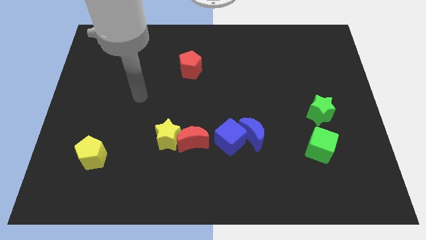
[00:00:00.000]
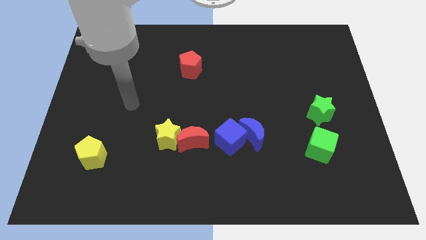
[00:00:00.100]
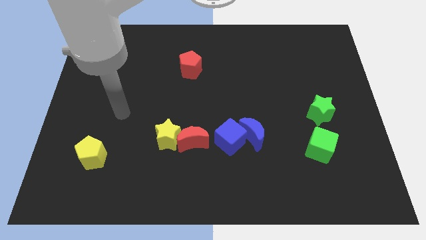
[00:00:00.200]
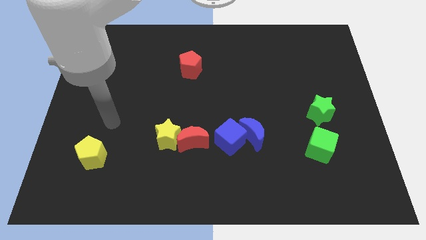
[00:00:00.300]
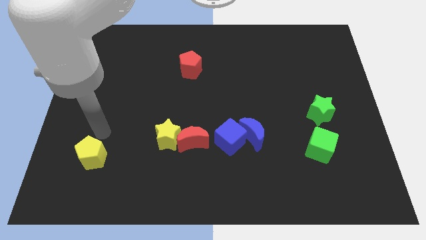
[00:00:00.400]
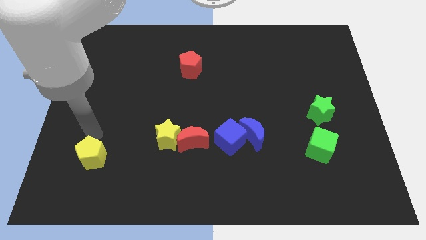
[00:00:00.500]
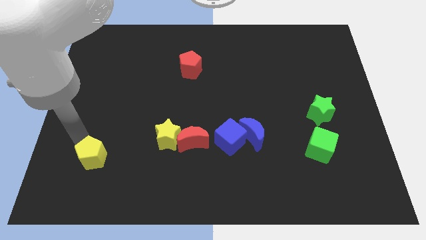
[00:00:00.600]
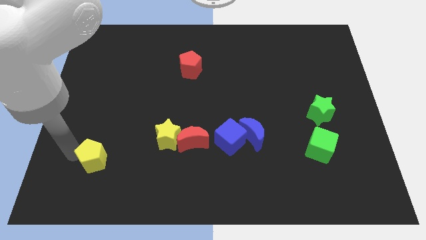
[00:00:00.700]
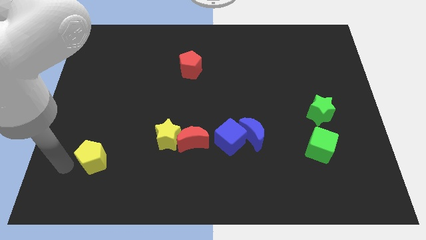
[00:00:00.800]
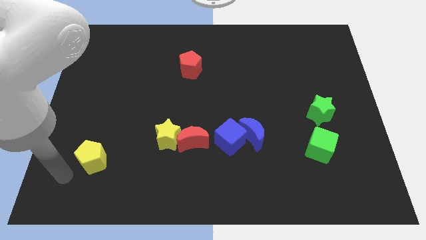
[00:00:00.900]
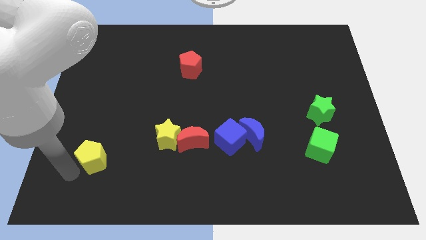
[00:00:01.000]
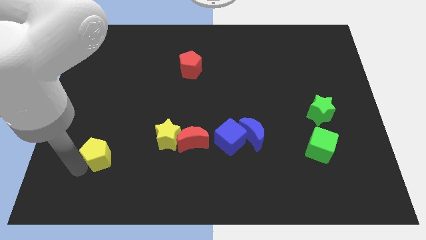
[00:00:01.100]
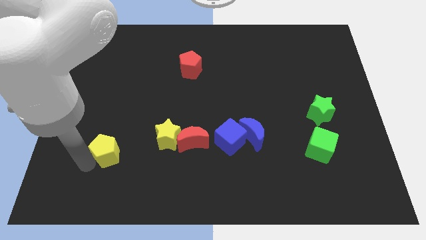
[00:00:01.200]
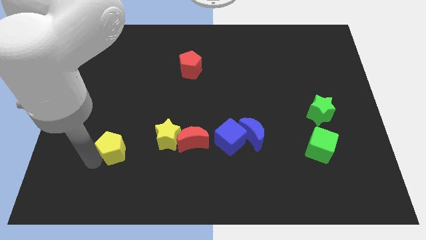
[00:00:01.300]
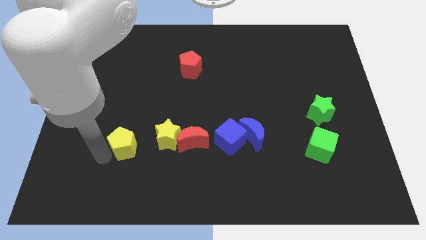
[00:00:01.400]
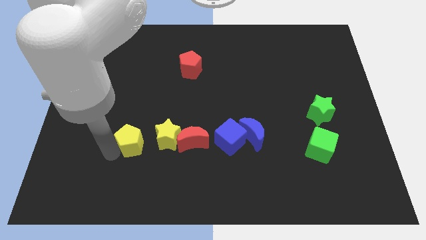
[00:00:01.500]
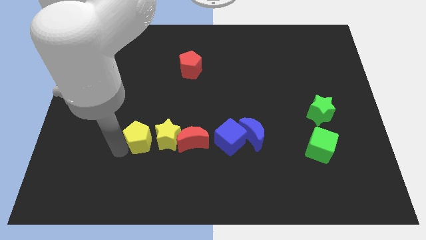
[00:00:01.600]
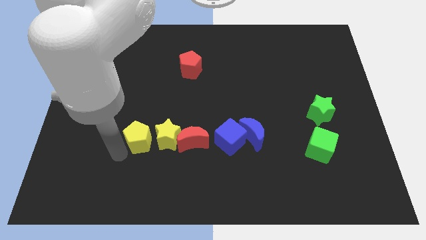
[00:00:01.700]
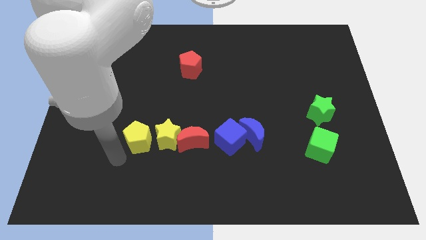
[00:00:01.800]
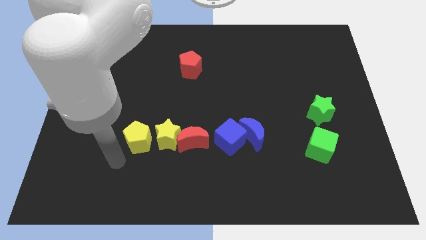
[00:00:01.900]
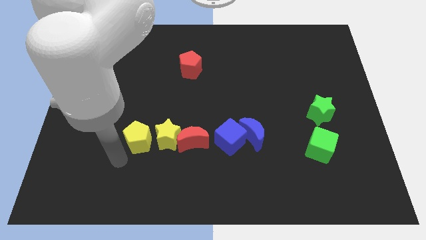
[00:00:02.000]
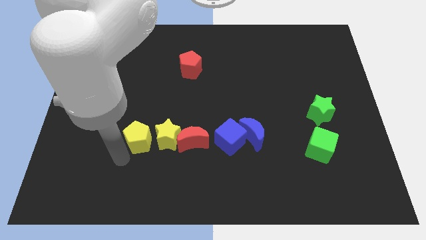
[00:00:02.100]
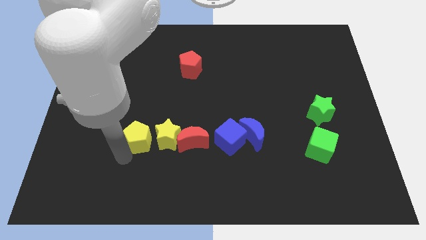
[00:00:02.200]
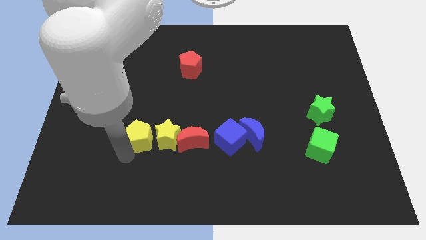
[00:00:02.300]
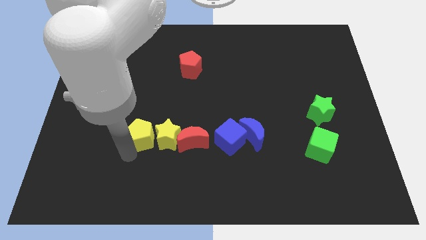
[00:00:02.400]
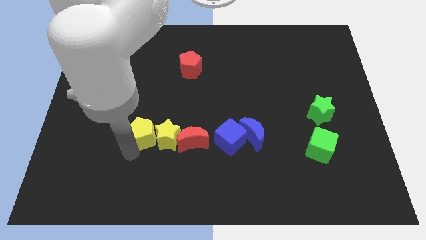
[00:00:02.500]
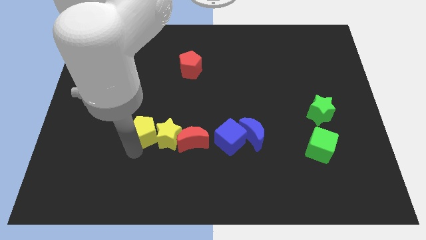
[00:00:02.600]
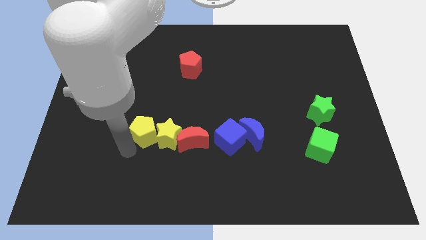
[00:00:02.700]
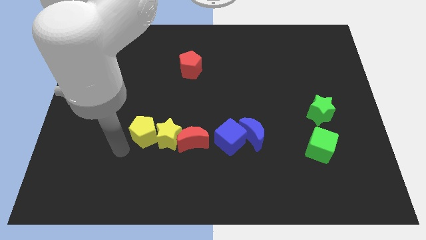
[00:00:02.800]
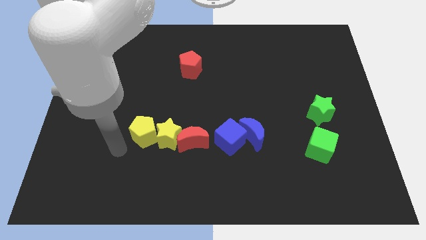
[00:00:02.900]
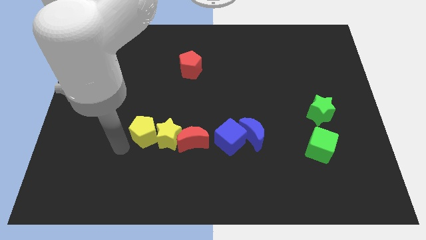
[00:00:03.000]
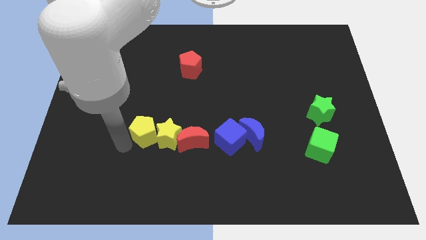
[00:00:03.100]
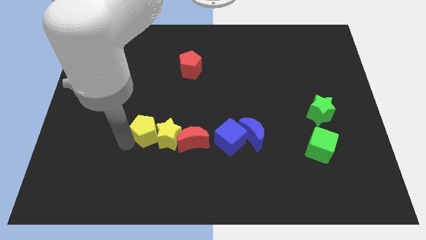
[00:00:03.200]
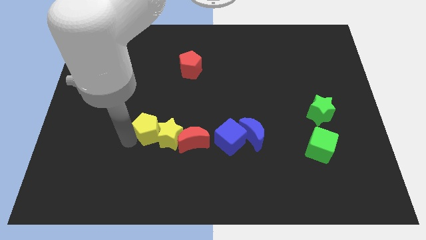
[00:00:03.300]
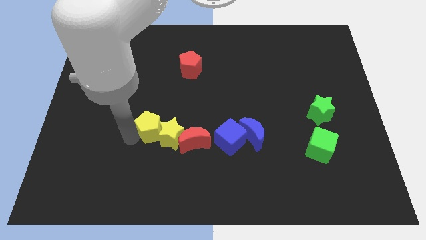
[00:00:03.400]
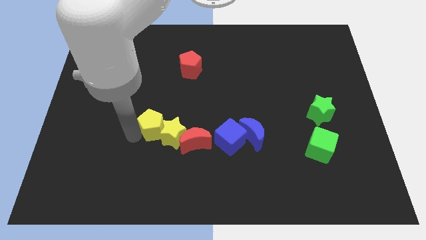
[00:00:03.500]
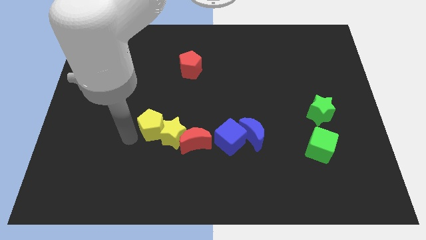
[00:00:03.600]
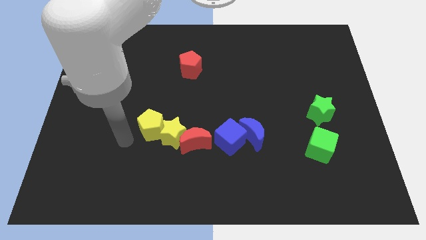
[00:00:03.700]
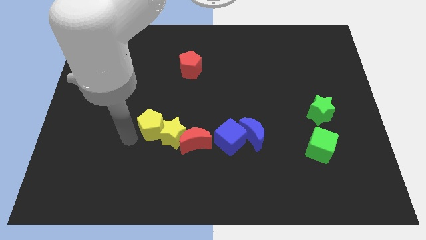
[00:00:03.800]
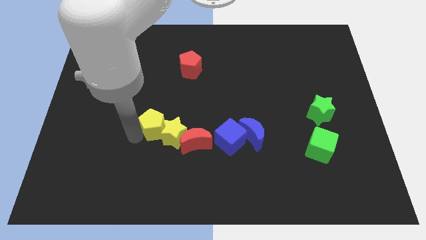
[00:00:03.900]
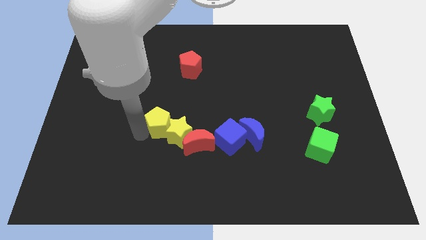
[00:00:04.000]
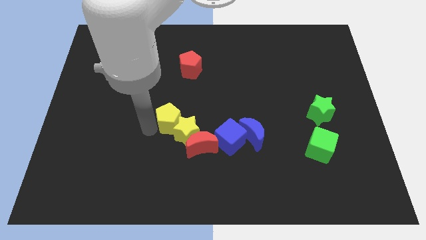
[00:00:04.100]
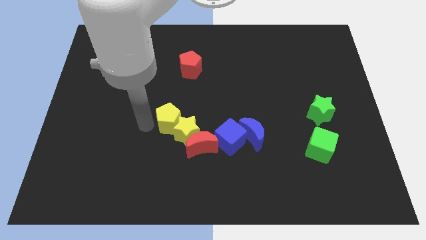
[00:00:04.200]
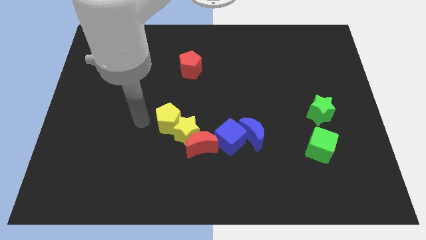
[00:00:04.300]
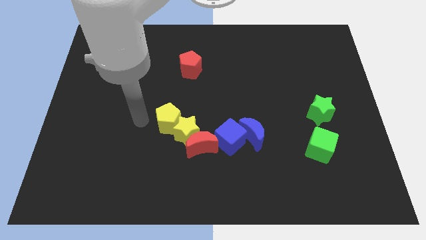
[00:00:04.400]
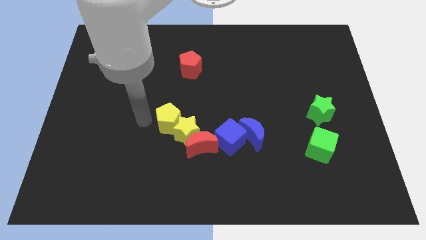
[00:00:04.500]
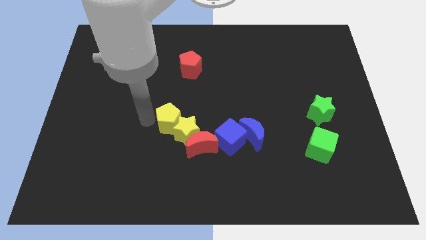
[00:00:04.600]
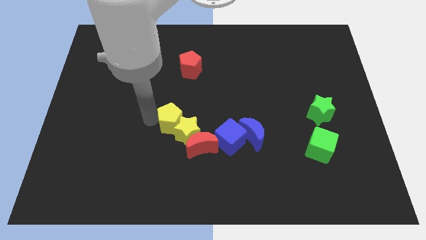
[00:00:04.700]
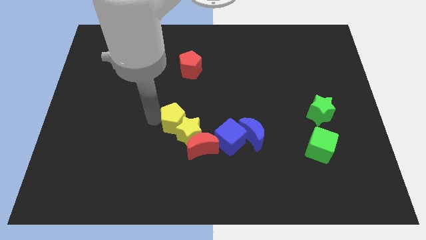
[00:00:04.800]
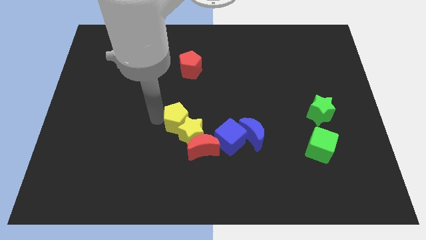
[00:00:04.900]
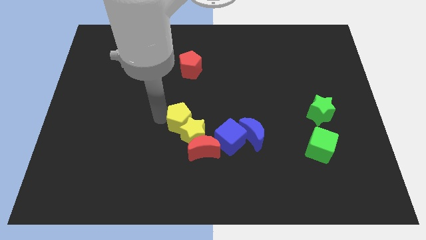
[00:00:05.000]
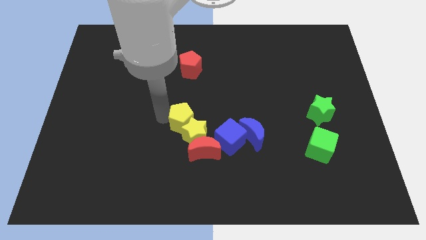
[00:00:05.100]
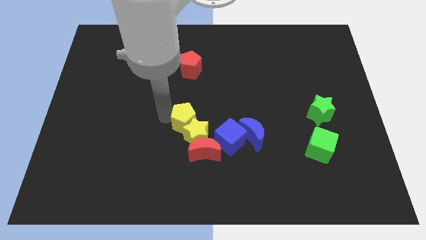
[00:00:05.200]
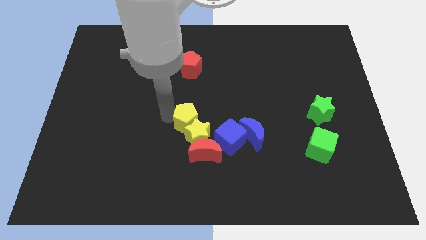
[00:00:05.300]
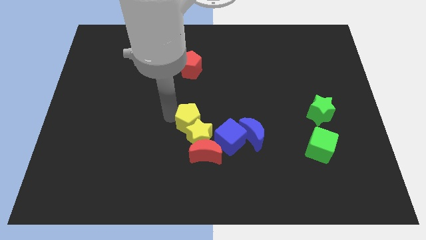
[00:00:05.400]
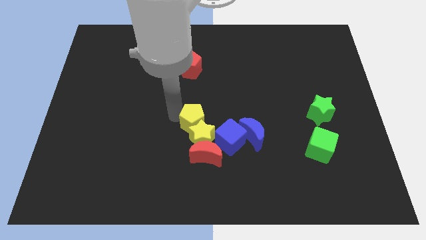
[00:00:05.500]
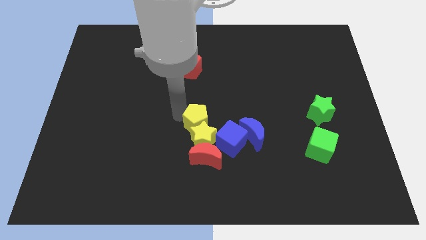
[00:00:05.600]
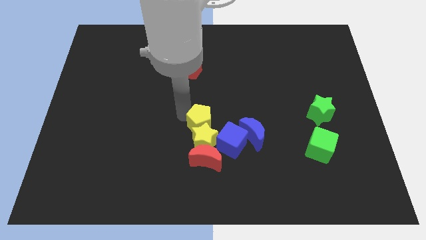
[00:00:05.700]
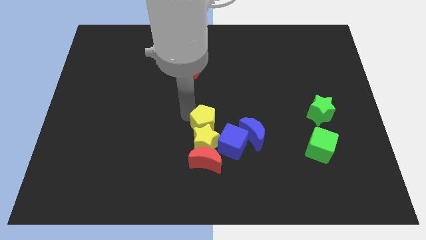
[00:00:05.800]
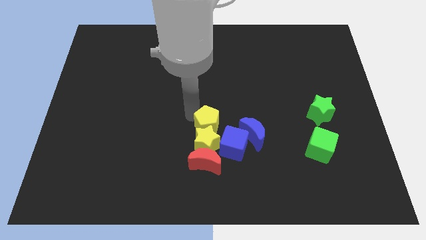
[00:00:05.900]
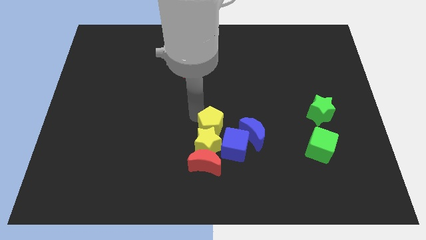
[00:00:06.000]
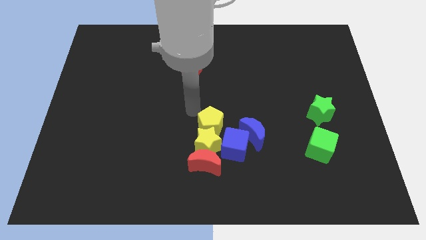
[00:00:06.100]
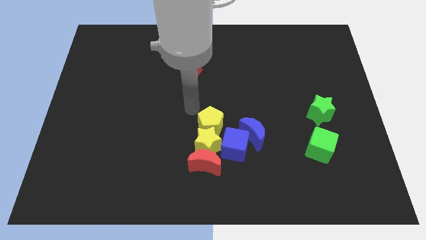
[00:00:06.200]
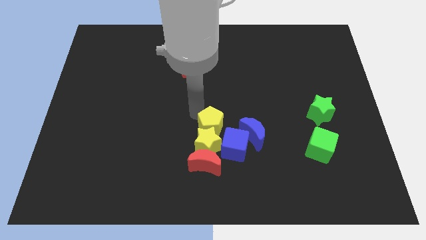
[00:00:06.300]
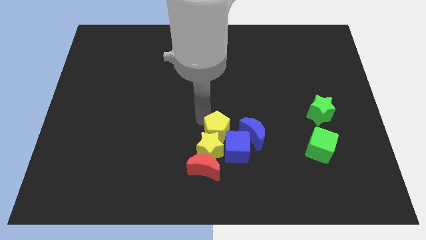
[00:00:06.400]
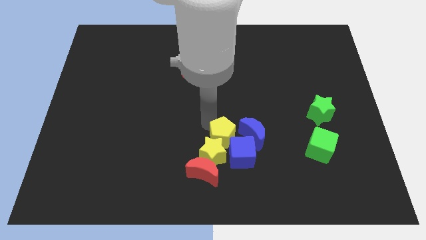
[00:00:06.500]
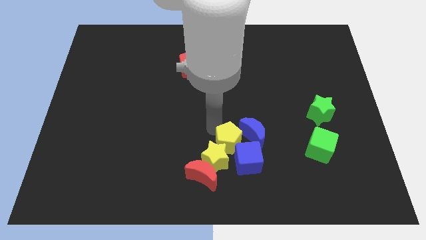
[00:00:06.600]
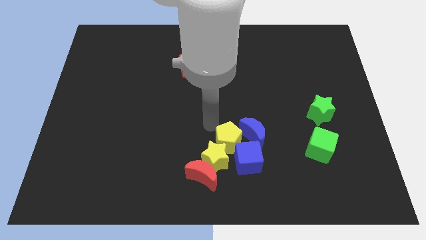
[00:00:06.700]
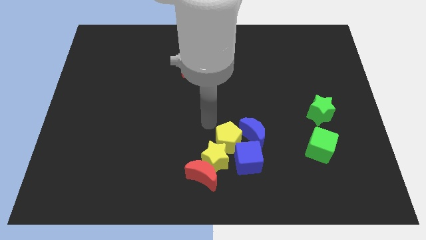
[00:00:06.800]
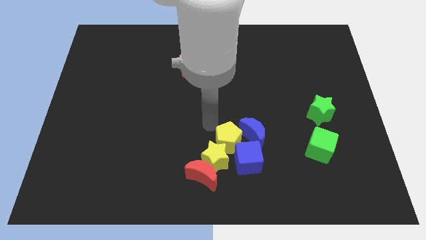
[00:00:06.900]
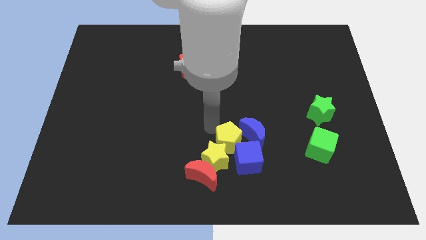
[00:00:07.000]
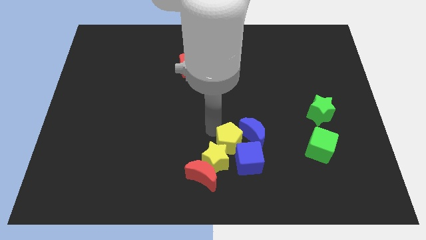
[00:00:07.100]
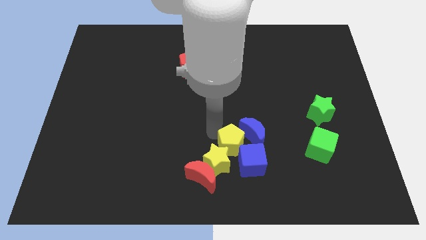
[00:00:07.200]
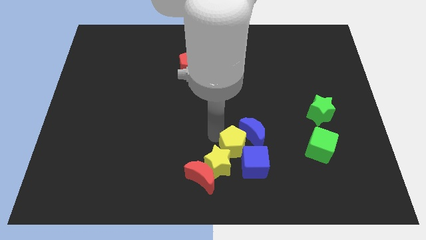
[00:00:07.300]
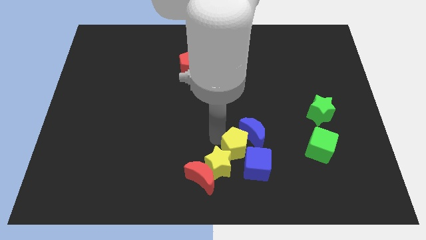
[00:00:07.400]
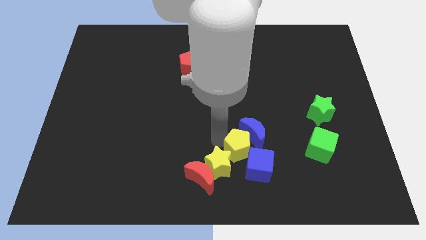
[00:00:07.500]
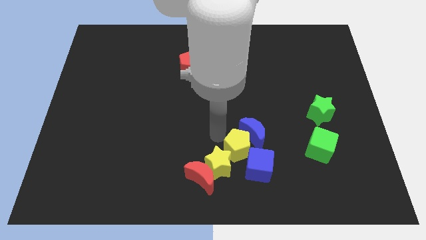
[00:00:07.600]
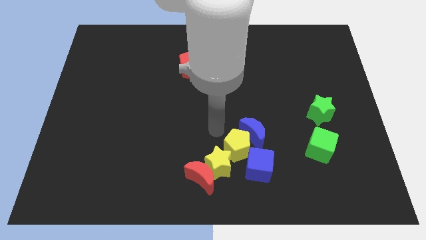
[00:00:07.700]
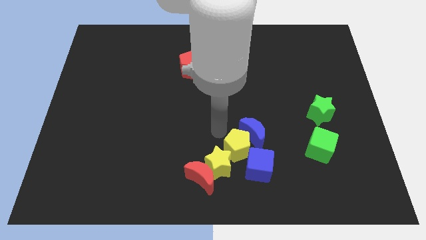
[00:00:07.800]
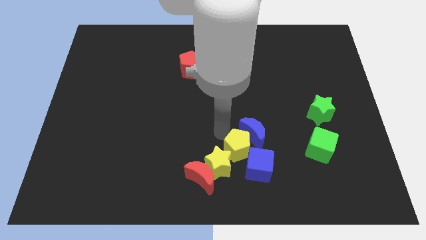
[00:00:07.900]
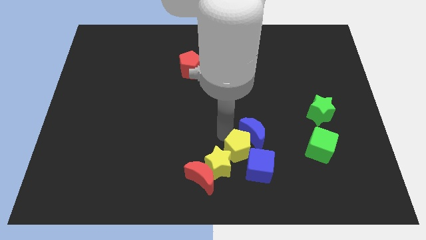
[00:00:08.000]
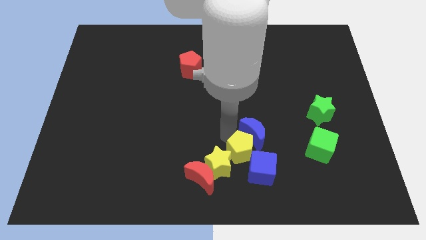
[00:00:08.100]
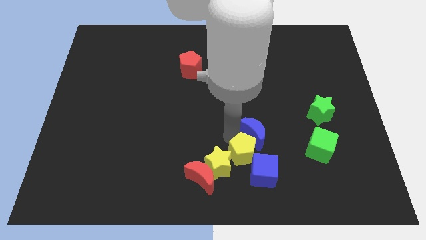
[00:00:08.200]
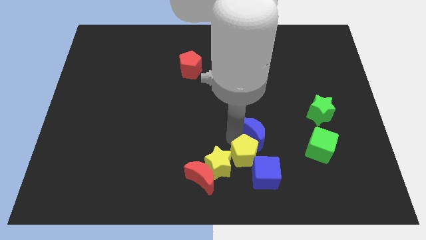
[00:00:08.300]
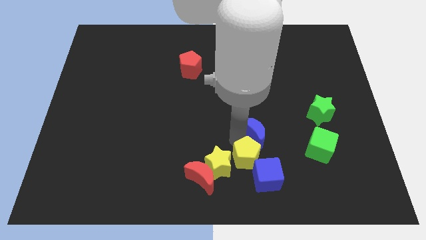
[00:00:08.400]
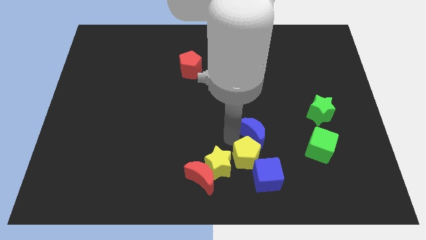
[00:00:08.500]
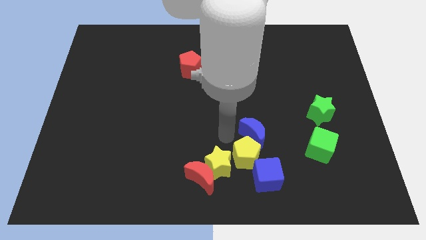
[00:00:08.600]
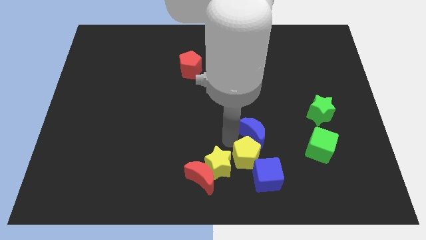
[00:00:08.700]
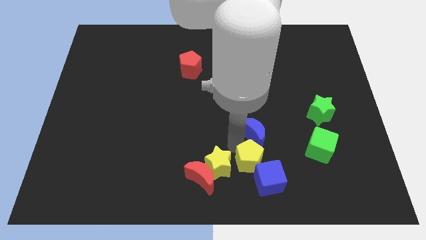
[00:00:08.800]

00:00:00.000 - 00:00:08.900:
put the yellow pentagon towards the blue cube
